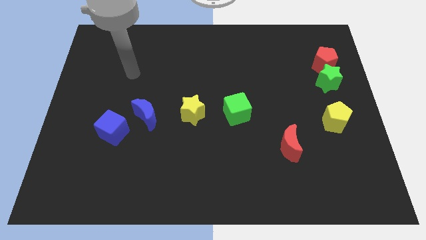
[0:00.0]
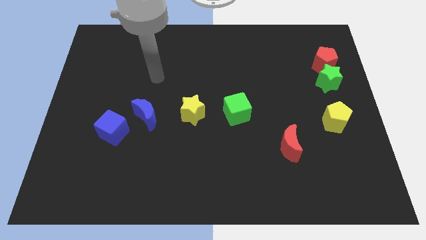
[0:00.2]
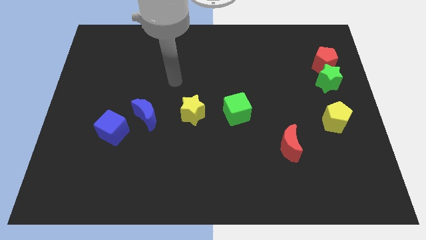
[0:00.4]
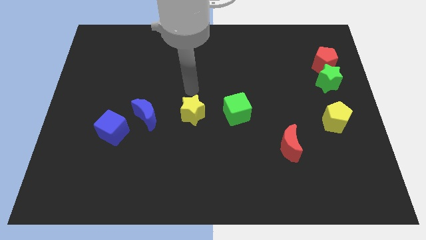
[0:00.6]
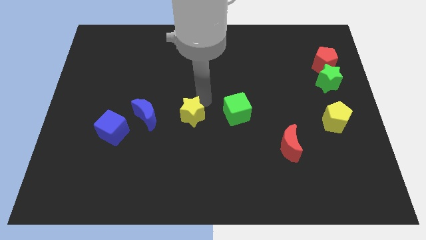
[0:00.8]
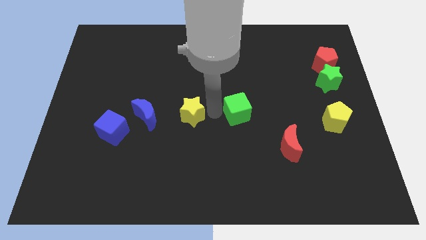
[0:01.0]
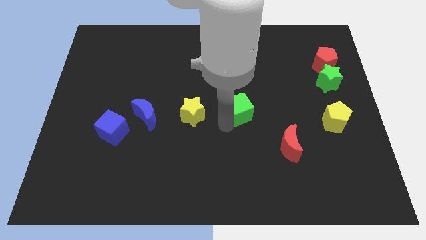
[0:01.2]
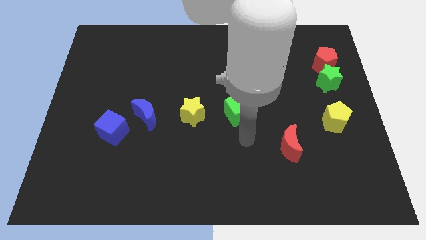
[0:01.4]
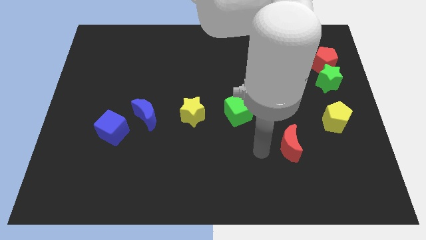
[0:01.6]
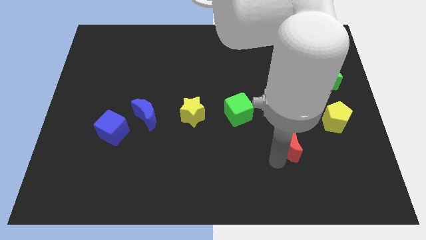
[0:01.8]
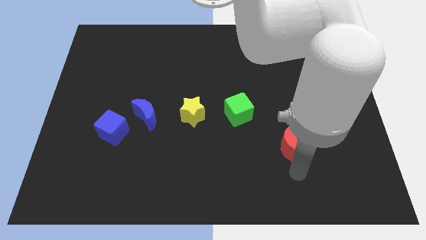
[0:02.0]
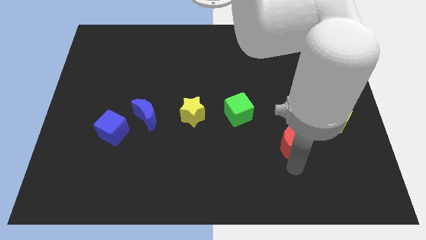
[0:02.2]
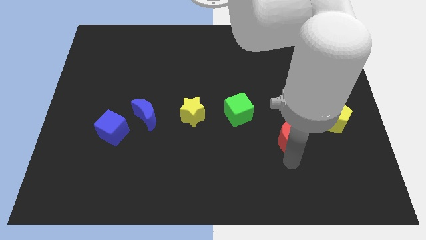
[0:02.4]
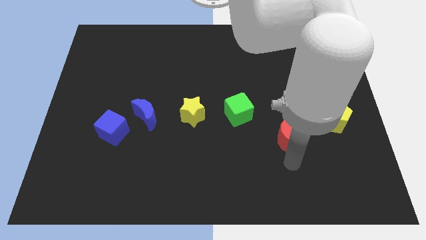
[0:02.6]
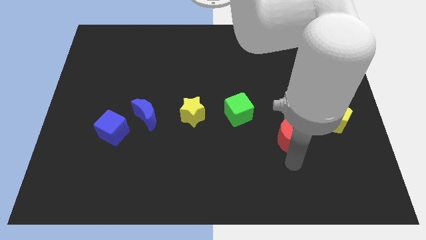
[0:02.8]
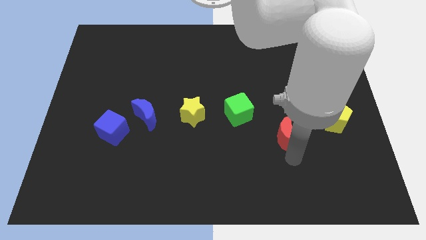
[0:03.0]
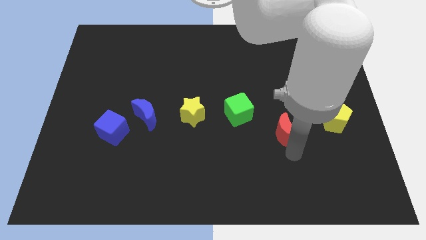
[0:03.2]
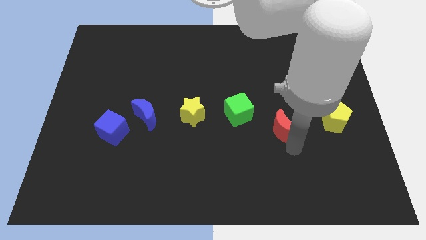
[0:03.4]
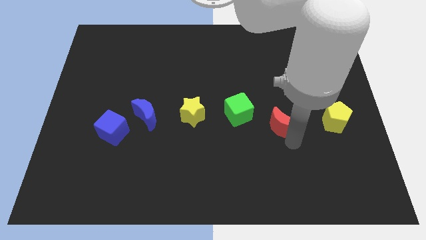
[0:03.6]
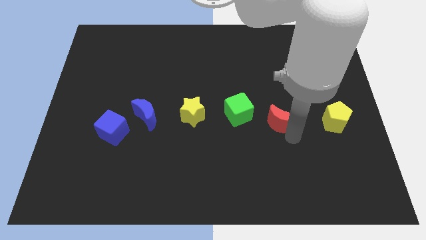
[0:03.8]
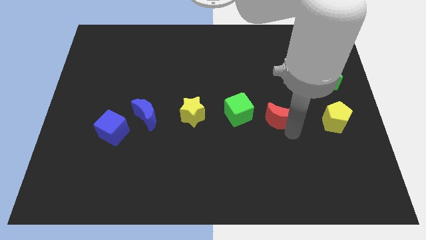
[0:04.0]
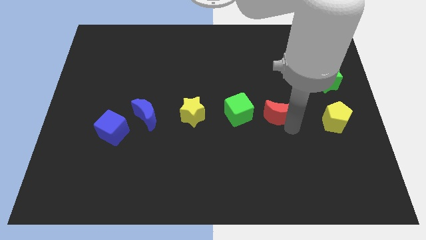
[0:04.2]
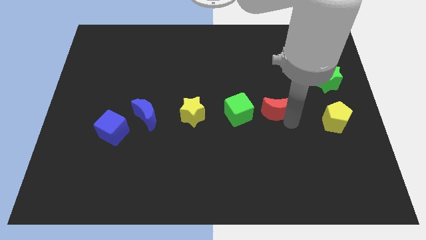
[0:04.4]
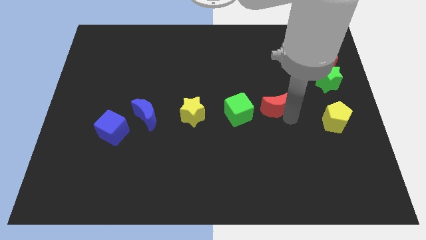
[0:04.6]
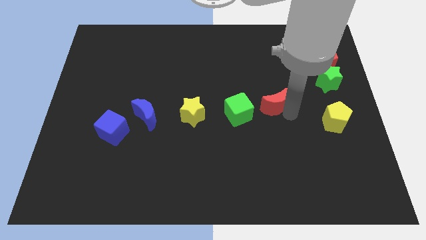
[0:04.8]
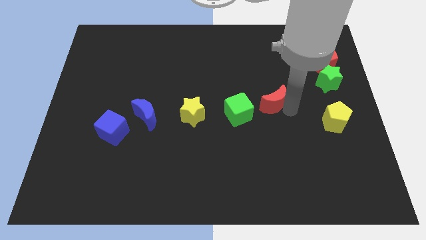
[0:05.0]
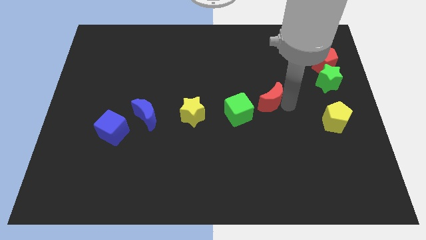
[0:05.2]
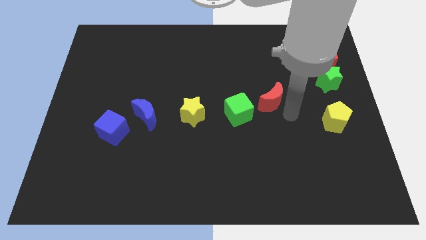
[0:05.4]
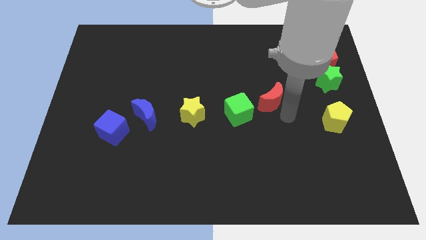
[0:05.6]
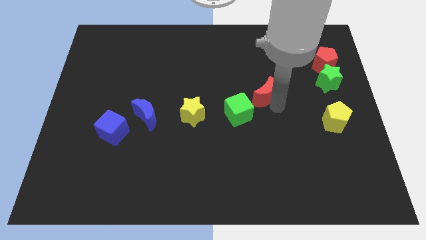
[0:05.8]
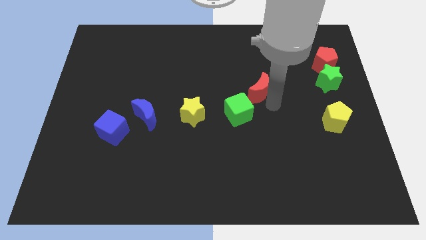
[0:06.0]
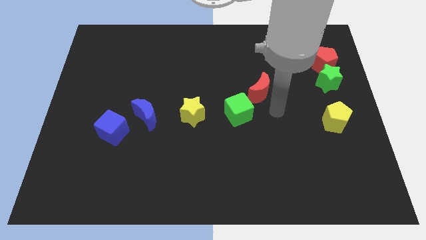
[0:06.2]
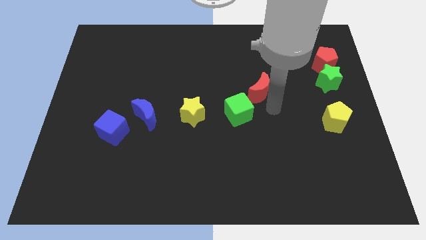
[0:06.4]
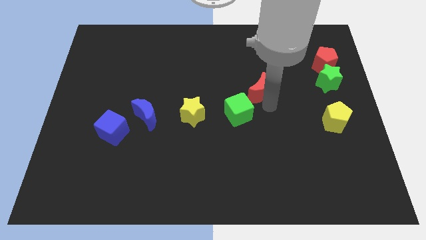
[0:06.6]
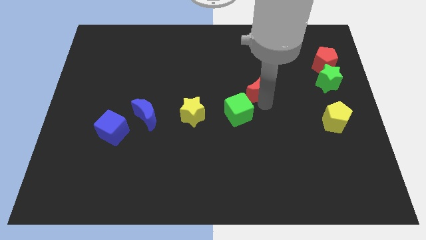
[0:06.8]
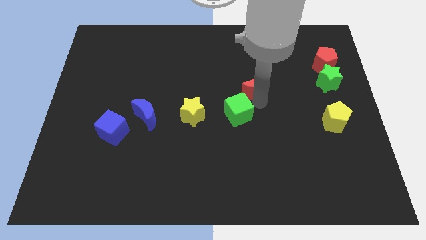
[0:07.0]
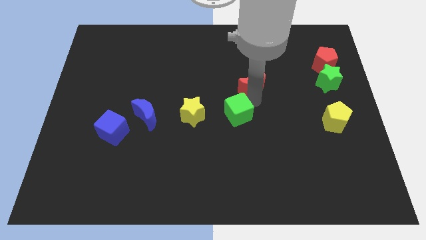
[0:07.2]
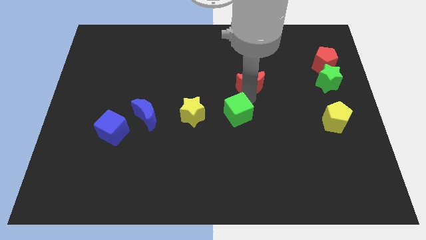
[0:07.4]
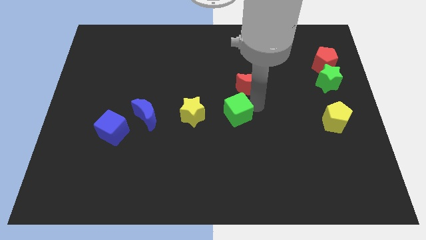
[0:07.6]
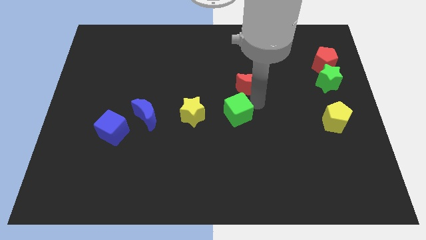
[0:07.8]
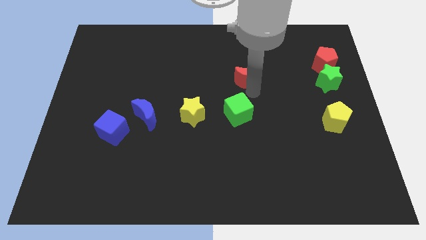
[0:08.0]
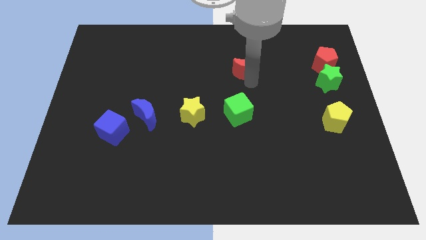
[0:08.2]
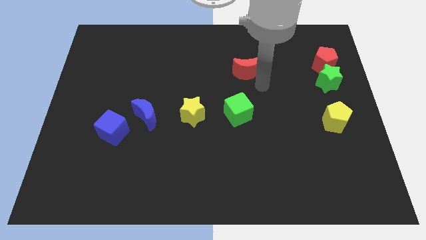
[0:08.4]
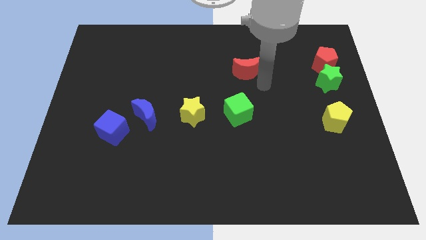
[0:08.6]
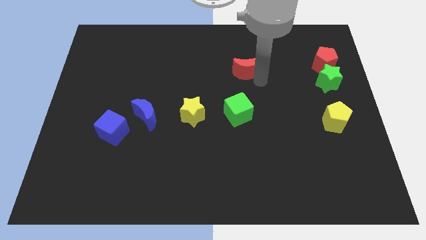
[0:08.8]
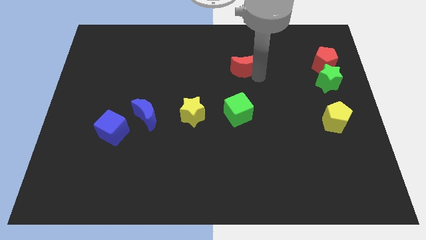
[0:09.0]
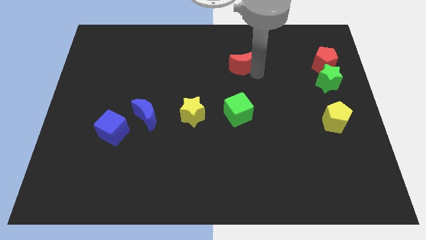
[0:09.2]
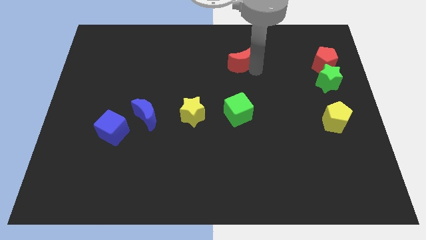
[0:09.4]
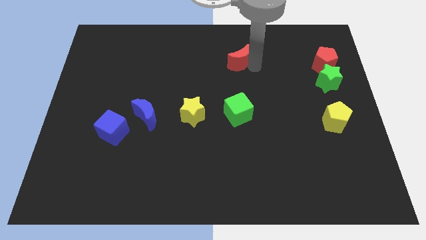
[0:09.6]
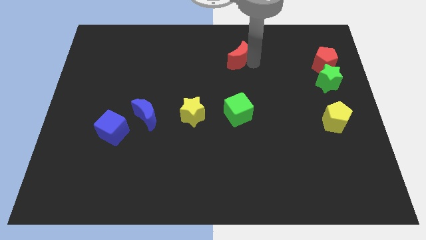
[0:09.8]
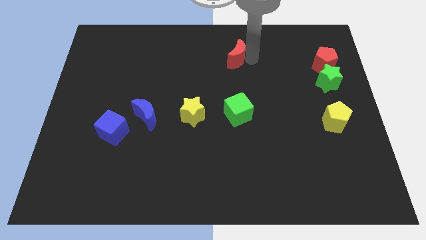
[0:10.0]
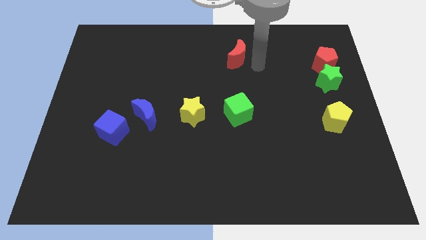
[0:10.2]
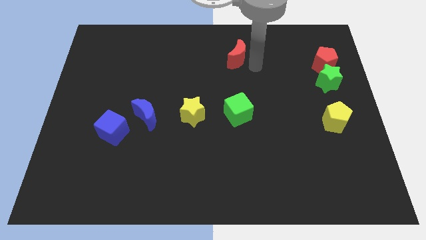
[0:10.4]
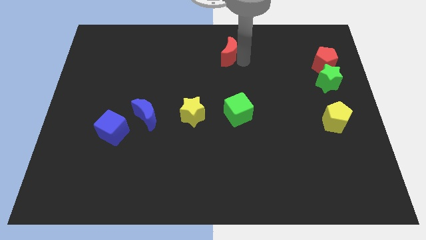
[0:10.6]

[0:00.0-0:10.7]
push the red moon to the top side

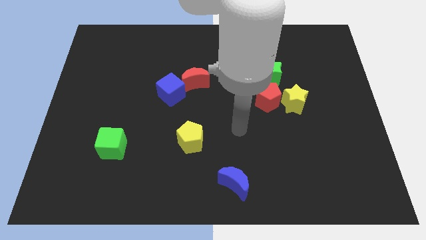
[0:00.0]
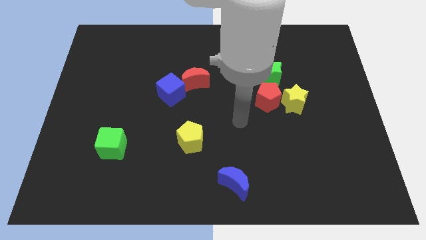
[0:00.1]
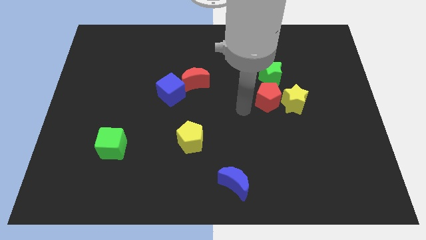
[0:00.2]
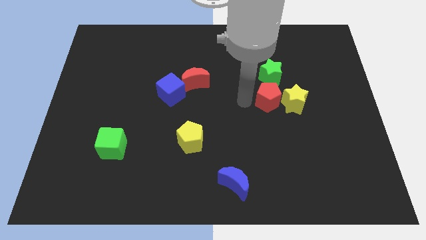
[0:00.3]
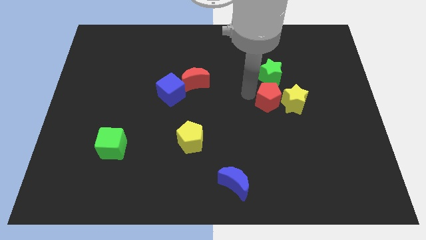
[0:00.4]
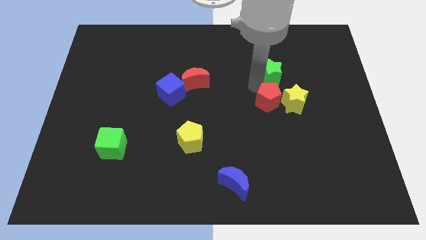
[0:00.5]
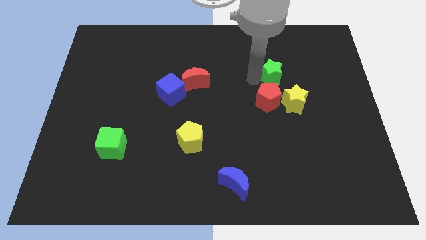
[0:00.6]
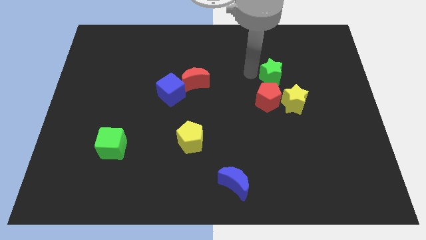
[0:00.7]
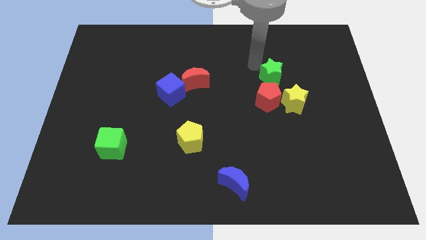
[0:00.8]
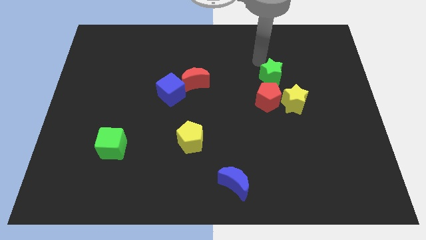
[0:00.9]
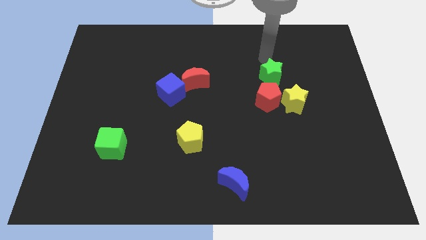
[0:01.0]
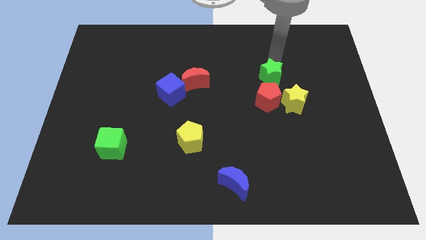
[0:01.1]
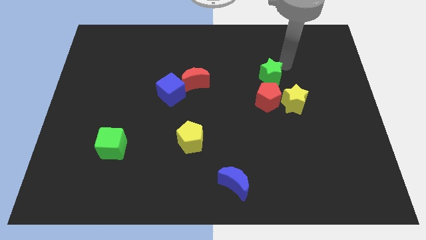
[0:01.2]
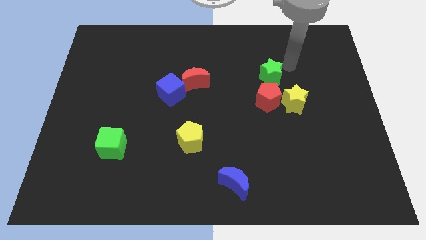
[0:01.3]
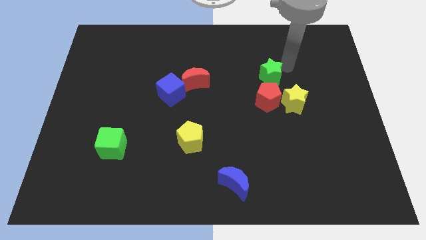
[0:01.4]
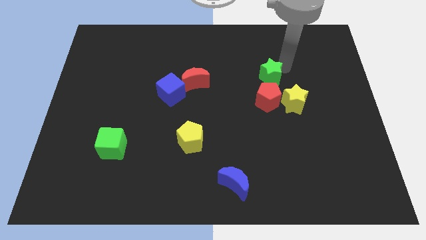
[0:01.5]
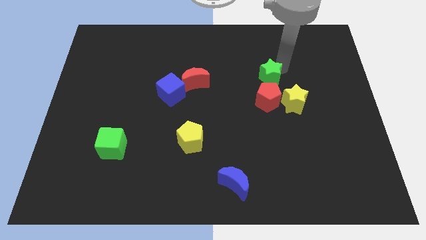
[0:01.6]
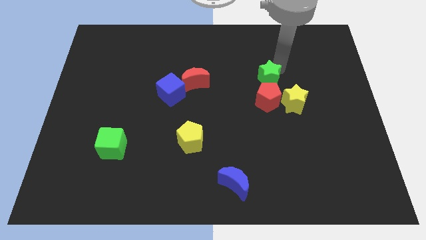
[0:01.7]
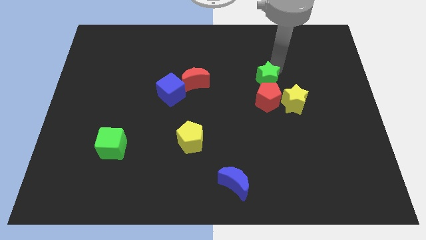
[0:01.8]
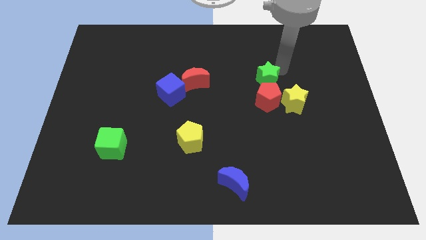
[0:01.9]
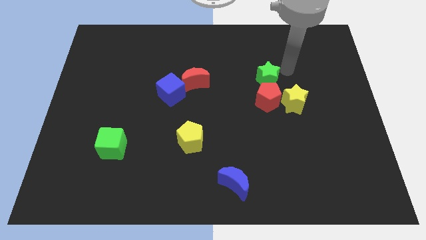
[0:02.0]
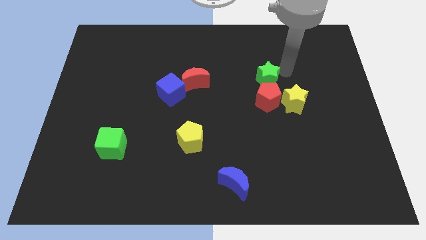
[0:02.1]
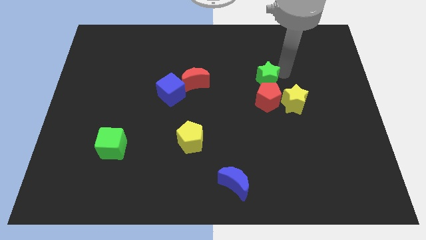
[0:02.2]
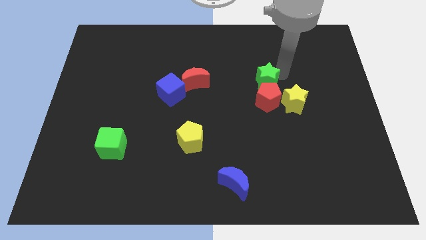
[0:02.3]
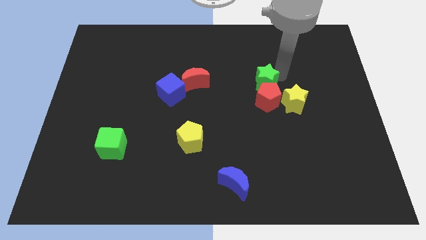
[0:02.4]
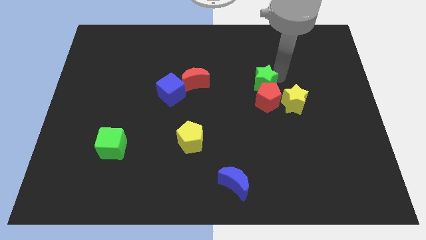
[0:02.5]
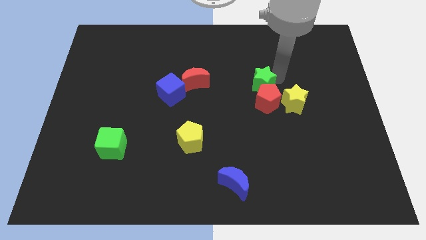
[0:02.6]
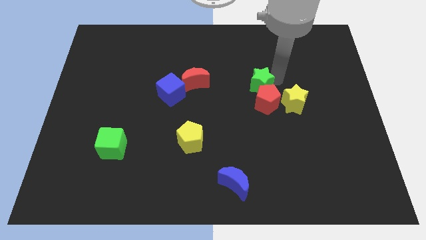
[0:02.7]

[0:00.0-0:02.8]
move the green star to the middle of the board
